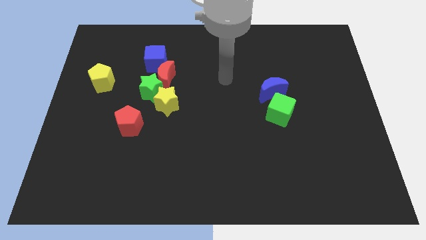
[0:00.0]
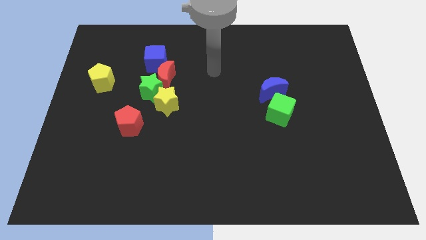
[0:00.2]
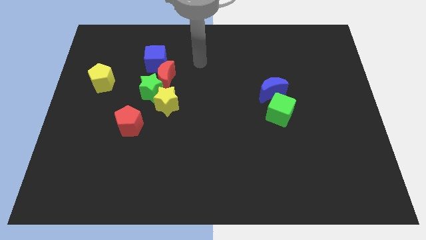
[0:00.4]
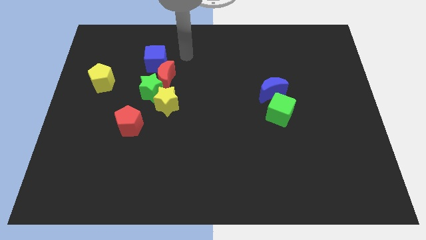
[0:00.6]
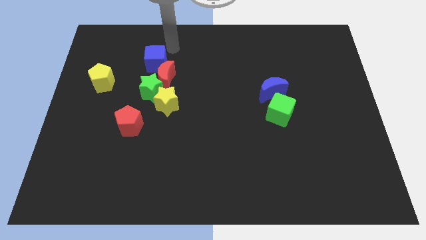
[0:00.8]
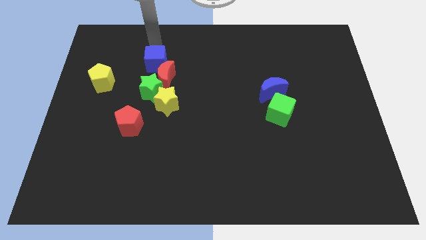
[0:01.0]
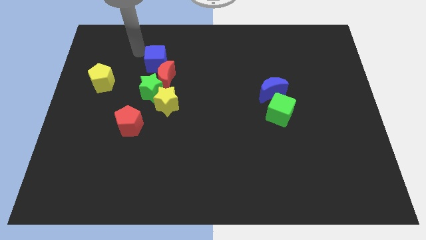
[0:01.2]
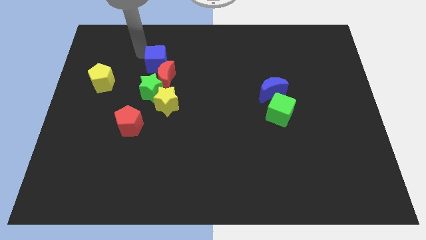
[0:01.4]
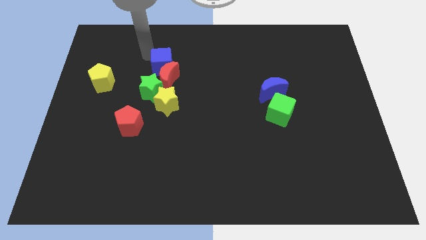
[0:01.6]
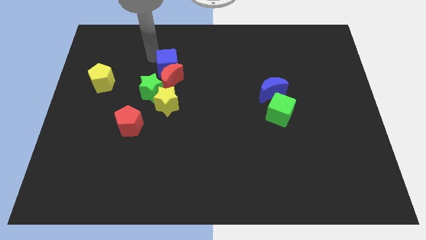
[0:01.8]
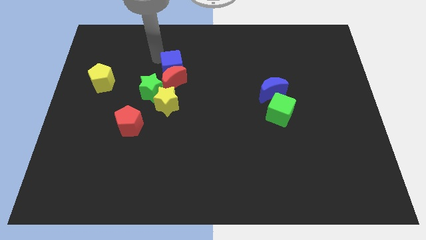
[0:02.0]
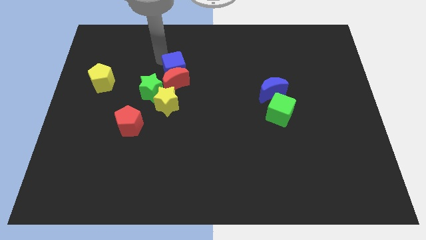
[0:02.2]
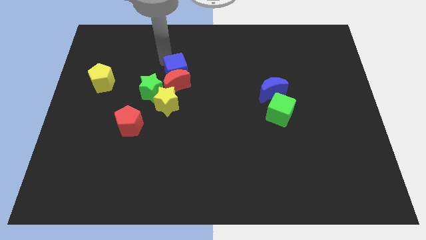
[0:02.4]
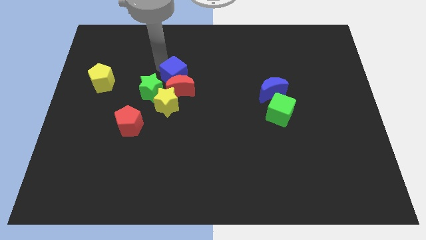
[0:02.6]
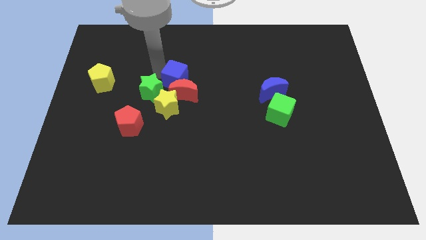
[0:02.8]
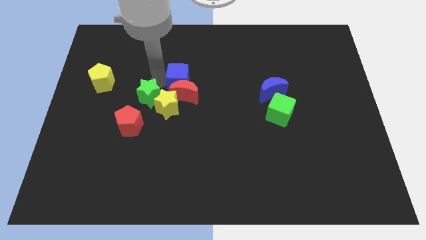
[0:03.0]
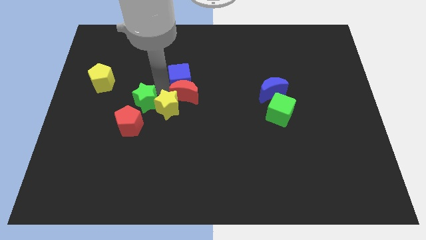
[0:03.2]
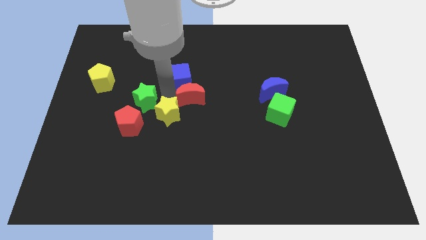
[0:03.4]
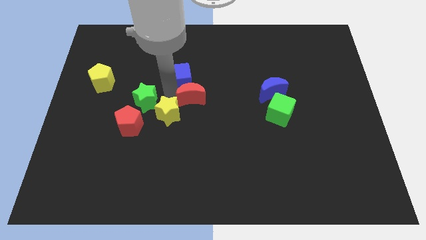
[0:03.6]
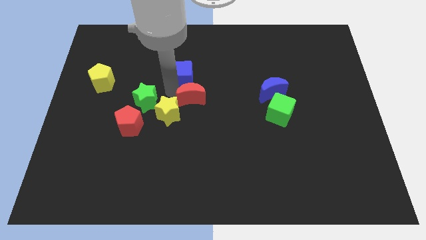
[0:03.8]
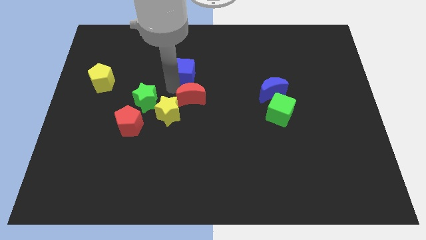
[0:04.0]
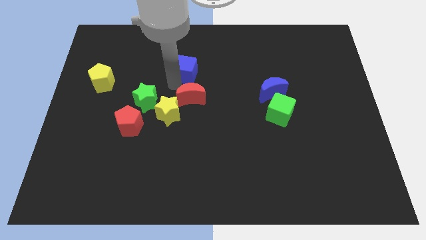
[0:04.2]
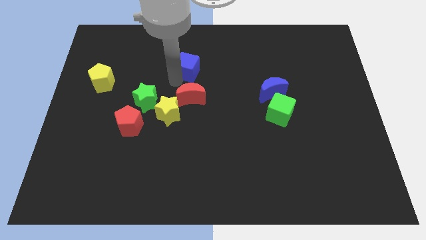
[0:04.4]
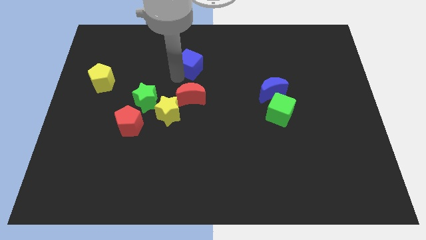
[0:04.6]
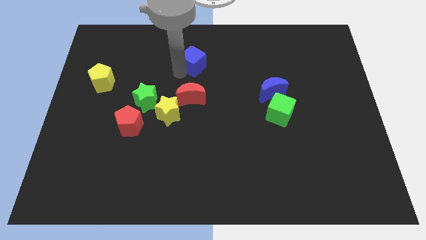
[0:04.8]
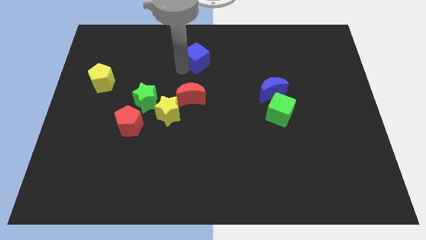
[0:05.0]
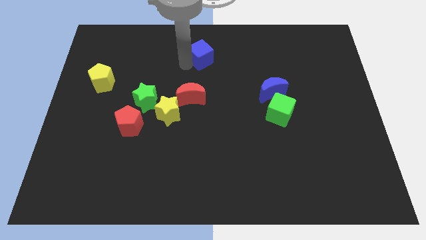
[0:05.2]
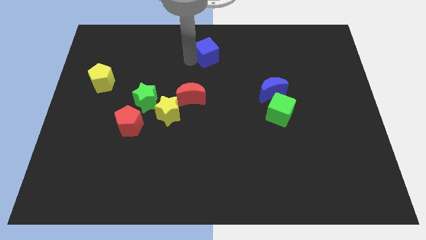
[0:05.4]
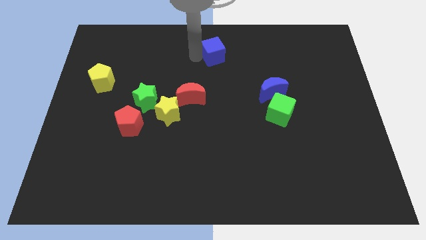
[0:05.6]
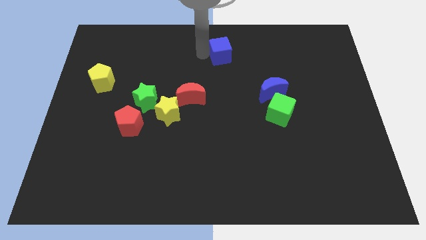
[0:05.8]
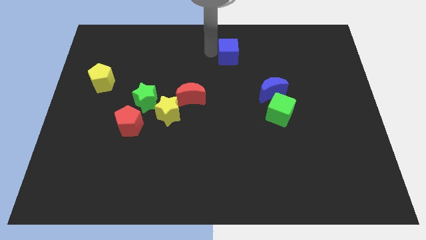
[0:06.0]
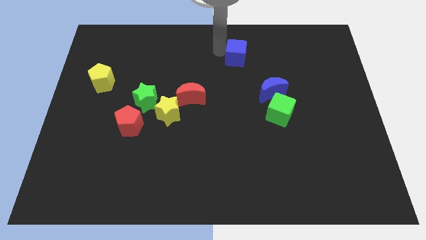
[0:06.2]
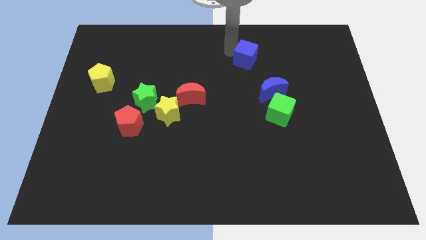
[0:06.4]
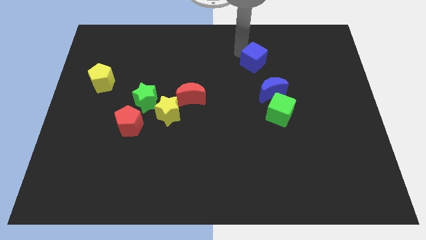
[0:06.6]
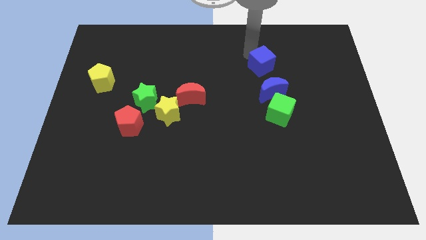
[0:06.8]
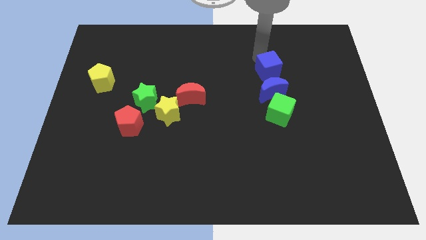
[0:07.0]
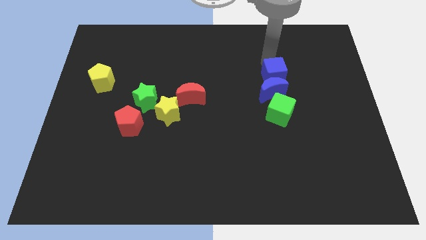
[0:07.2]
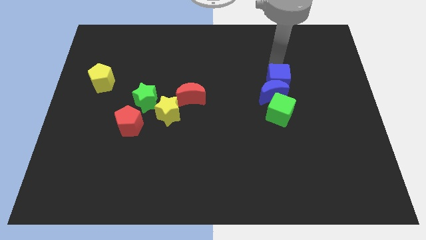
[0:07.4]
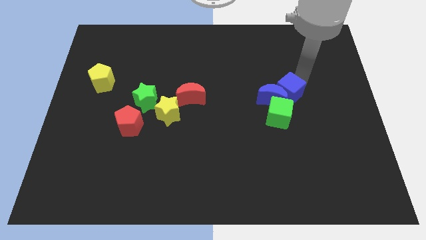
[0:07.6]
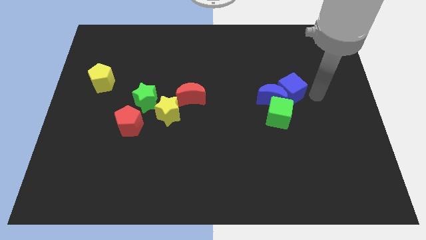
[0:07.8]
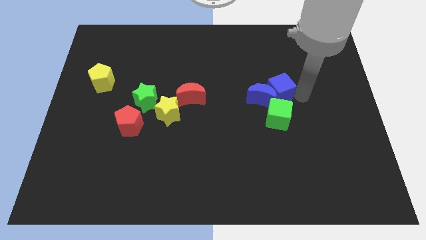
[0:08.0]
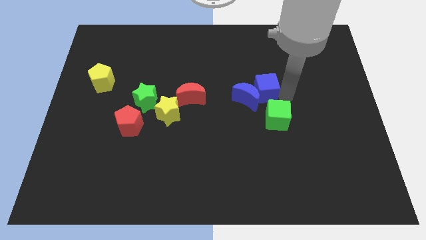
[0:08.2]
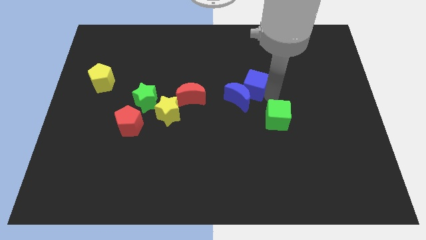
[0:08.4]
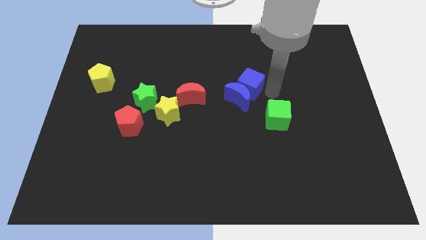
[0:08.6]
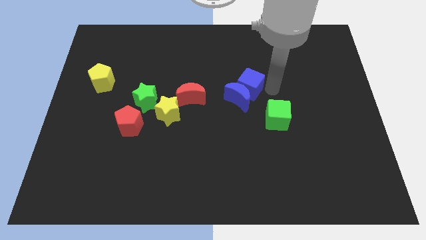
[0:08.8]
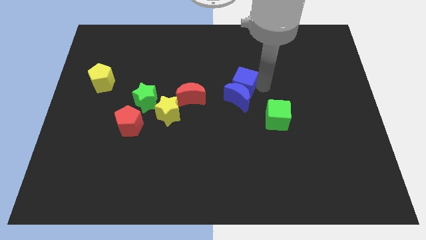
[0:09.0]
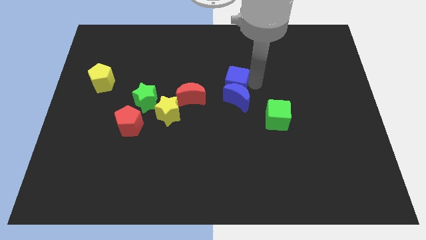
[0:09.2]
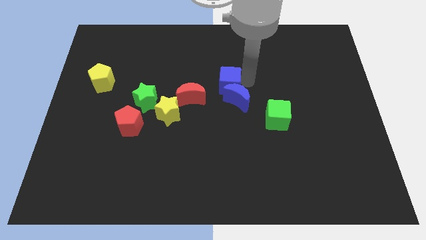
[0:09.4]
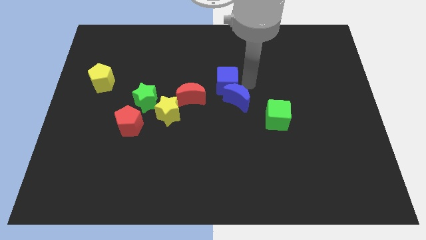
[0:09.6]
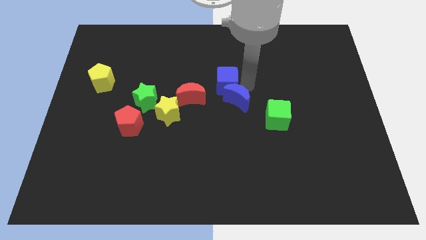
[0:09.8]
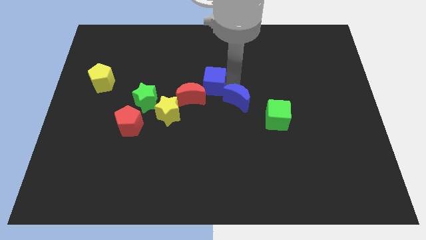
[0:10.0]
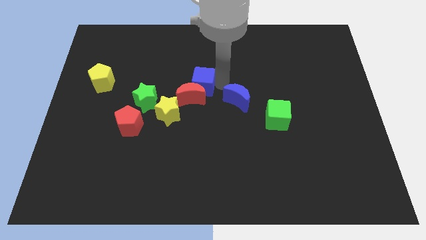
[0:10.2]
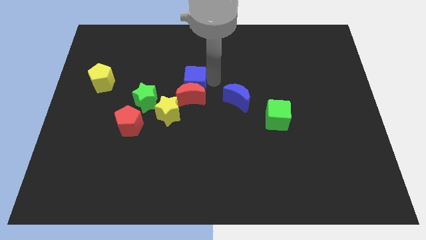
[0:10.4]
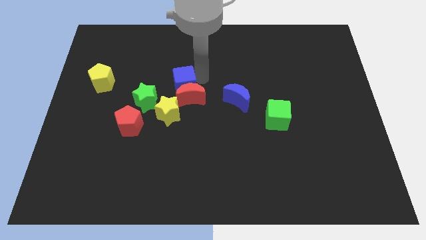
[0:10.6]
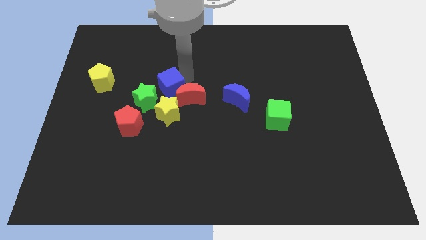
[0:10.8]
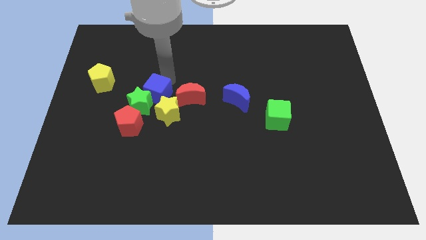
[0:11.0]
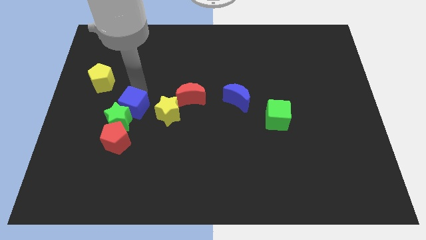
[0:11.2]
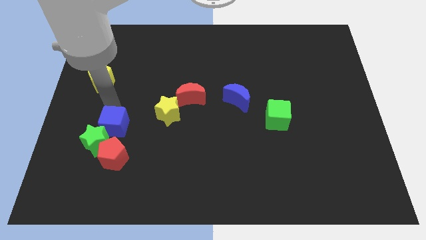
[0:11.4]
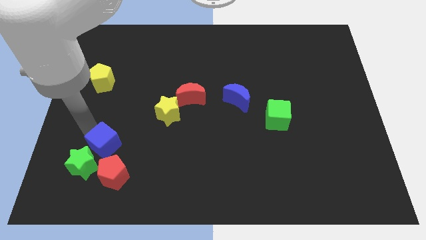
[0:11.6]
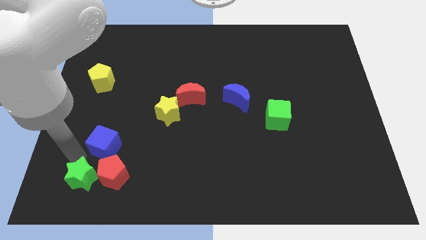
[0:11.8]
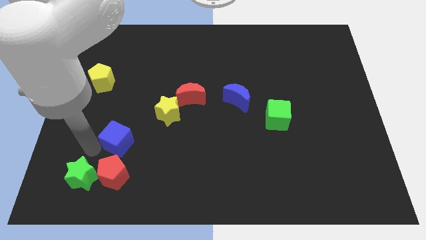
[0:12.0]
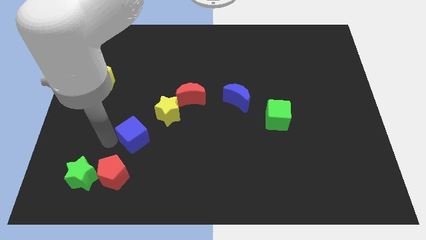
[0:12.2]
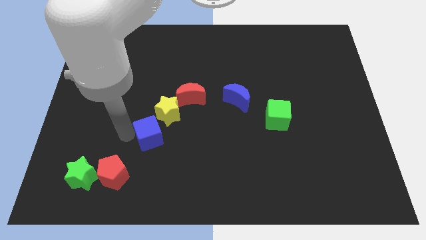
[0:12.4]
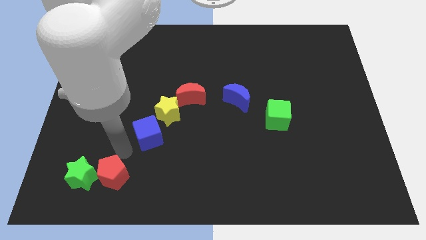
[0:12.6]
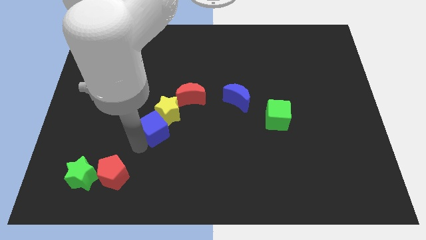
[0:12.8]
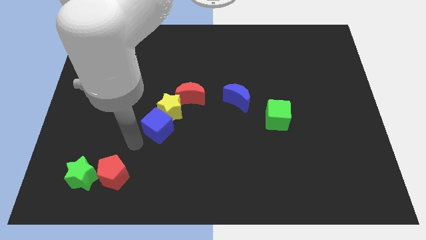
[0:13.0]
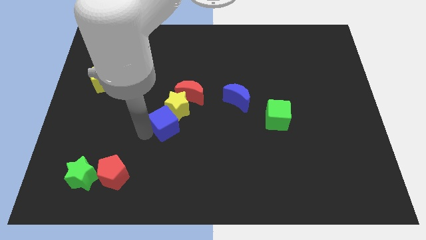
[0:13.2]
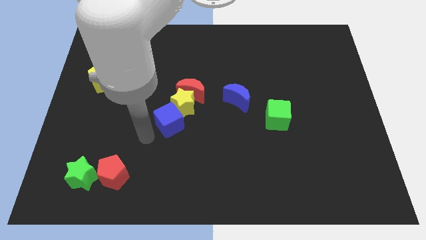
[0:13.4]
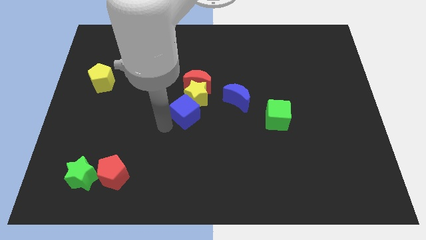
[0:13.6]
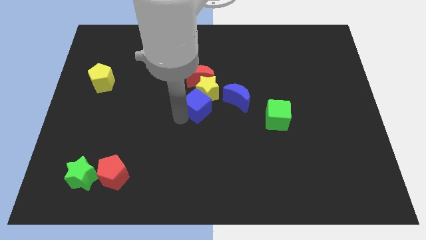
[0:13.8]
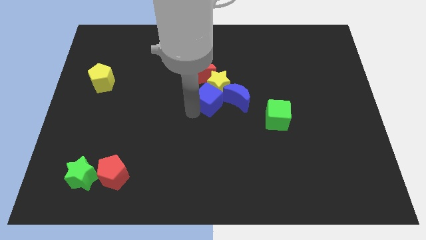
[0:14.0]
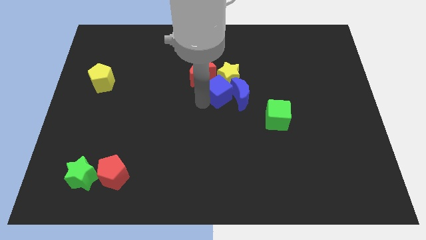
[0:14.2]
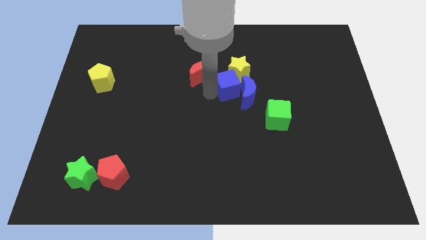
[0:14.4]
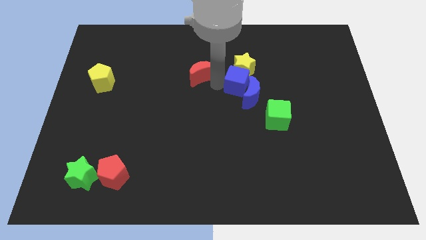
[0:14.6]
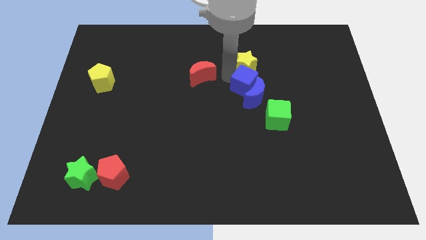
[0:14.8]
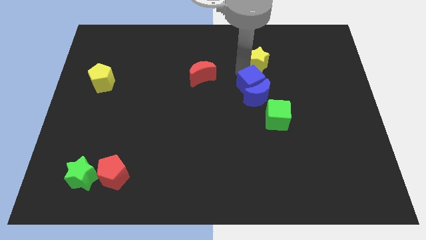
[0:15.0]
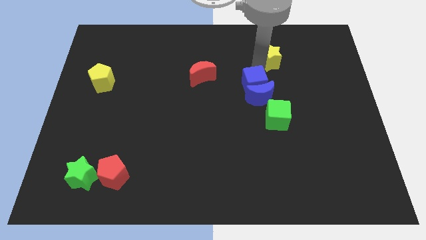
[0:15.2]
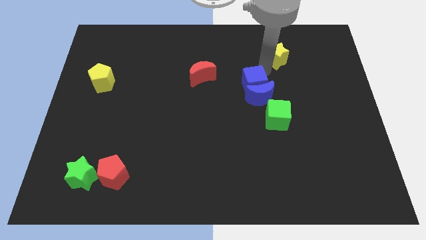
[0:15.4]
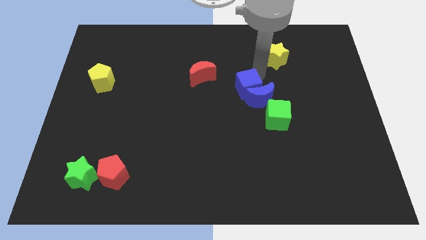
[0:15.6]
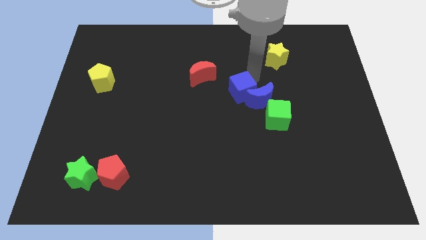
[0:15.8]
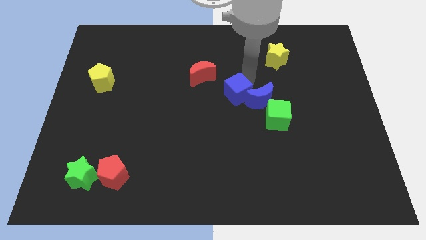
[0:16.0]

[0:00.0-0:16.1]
move the blue cube diagonally down and right
